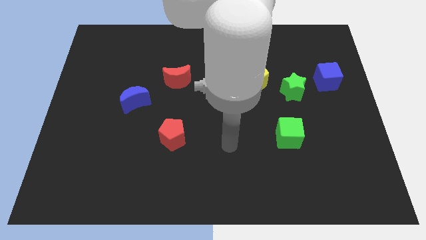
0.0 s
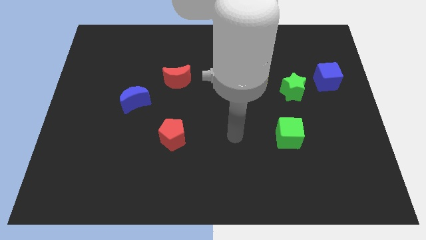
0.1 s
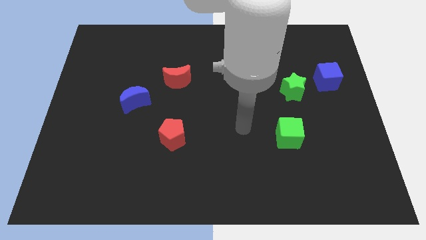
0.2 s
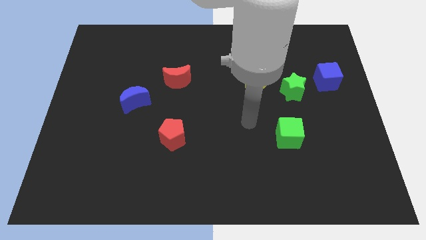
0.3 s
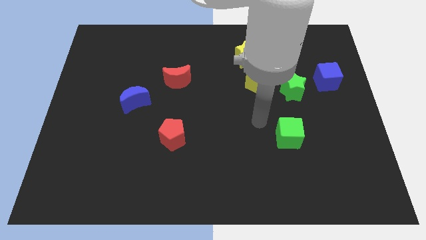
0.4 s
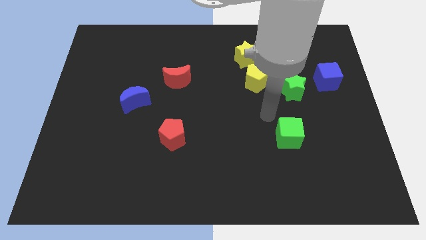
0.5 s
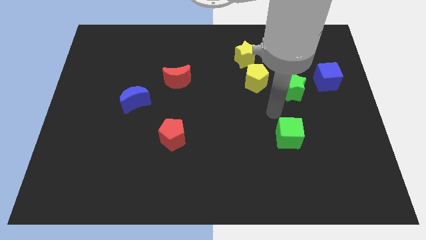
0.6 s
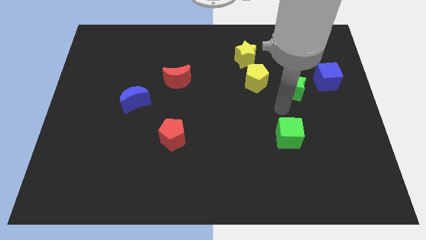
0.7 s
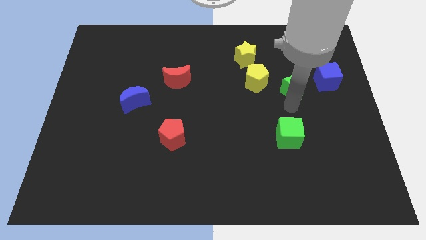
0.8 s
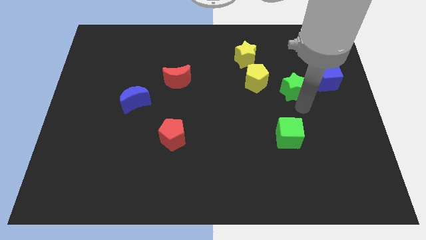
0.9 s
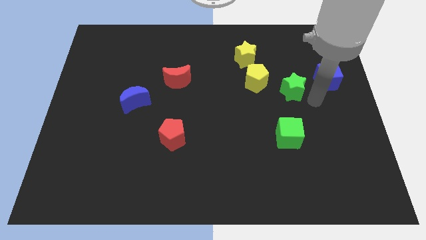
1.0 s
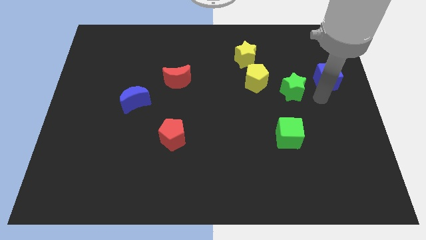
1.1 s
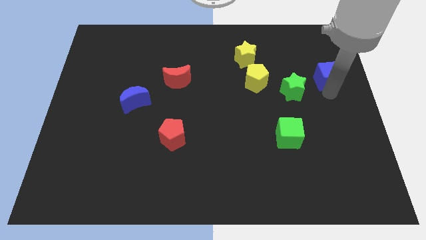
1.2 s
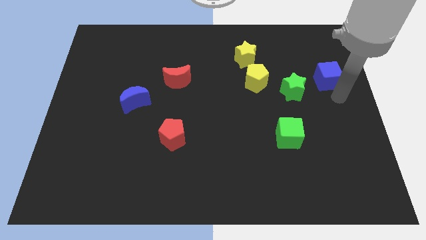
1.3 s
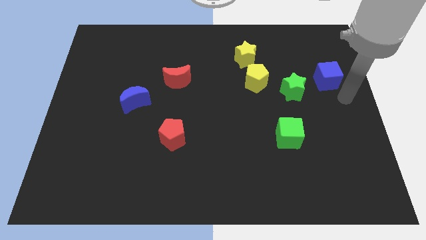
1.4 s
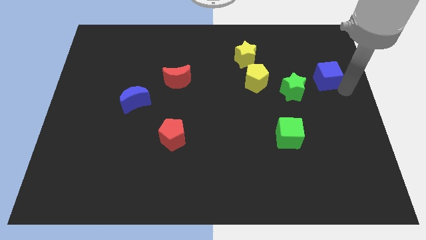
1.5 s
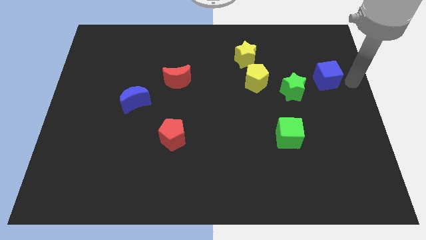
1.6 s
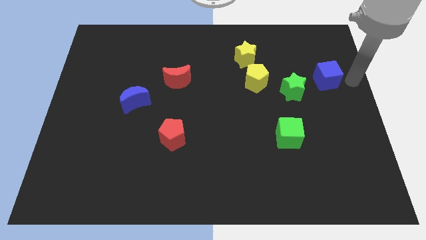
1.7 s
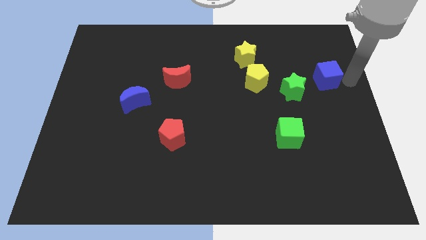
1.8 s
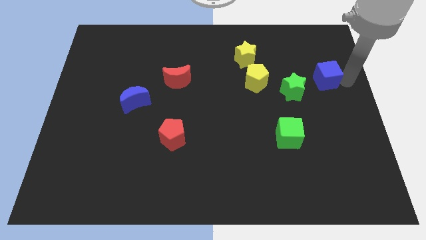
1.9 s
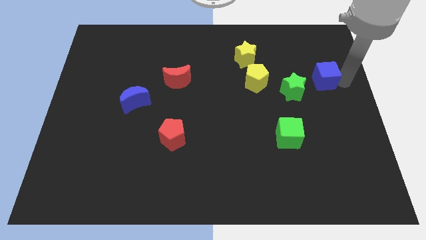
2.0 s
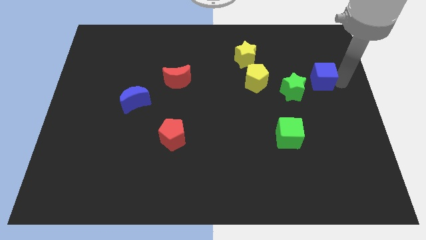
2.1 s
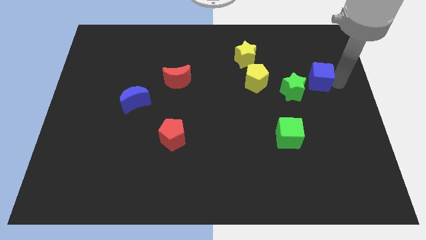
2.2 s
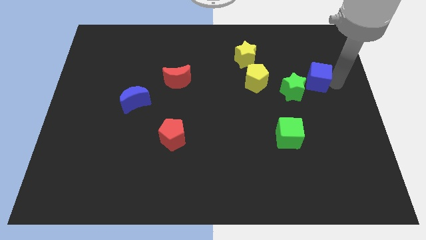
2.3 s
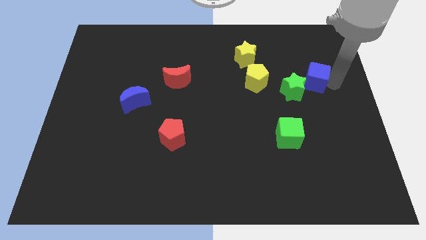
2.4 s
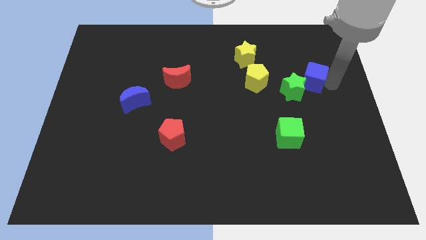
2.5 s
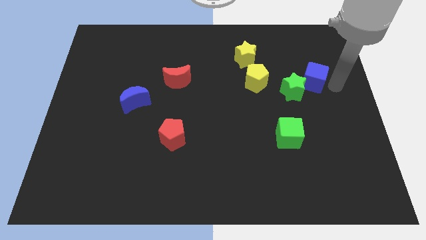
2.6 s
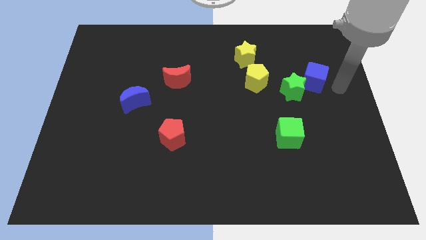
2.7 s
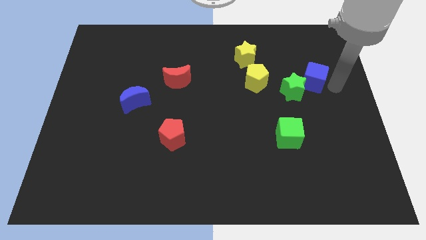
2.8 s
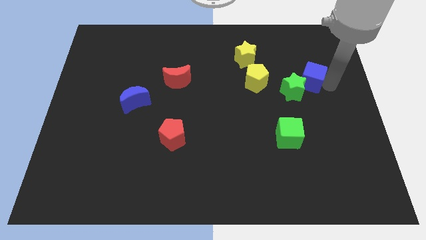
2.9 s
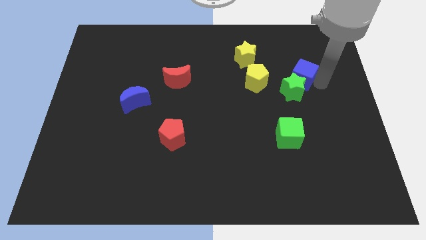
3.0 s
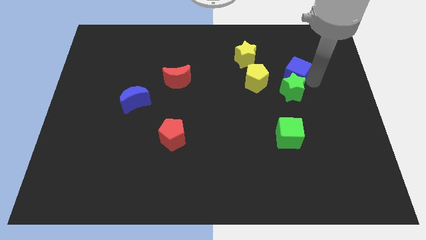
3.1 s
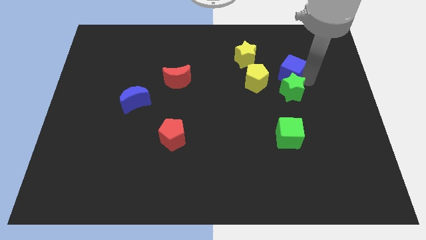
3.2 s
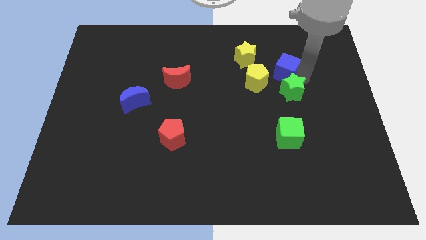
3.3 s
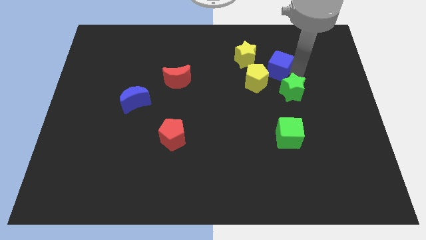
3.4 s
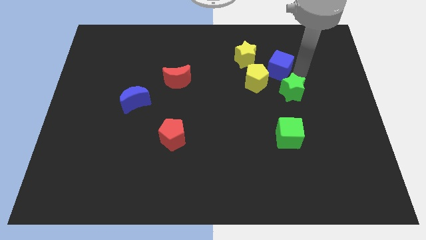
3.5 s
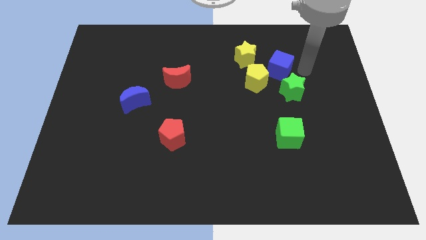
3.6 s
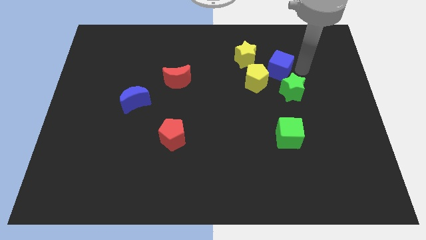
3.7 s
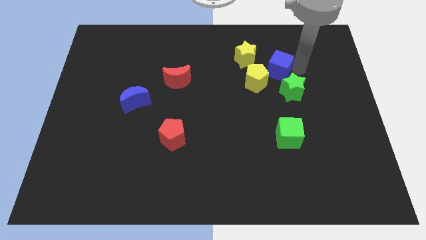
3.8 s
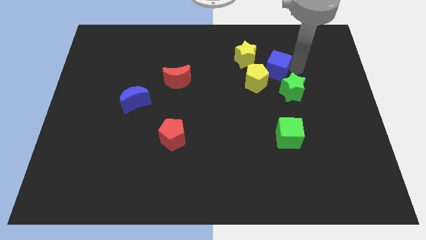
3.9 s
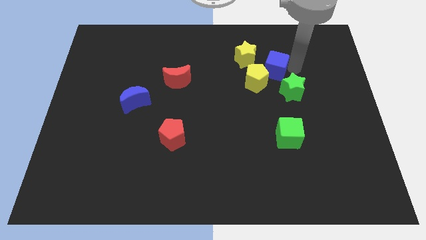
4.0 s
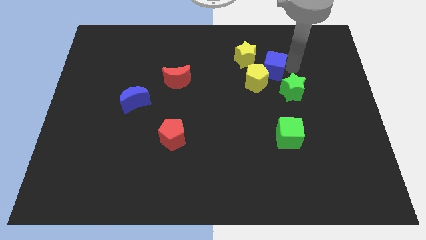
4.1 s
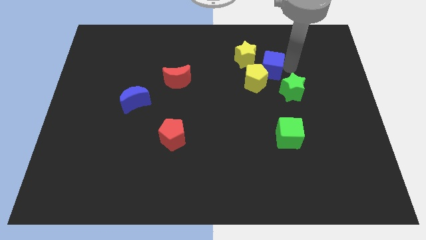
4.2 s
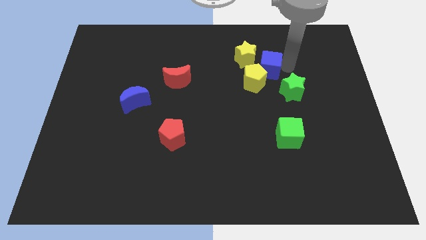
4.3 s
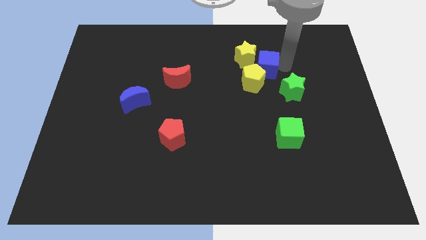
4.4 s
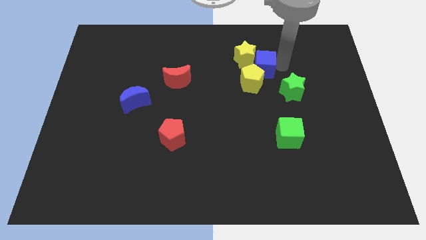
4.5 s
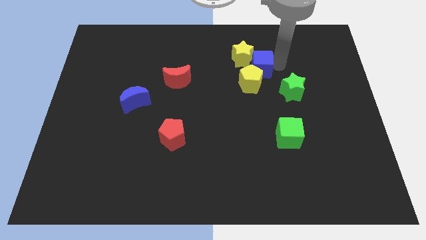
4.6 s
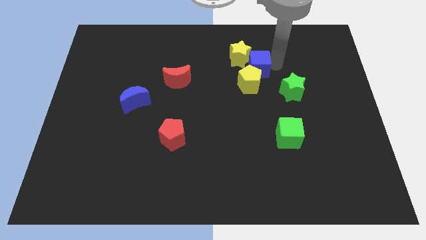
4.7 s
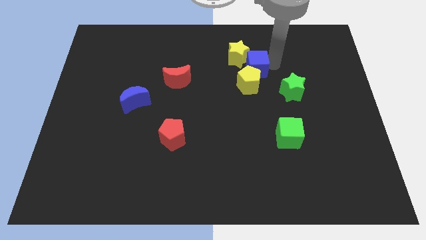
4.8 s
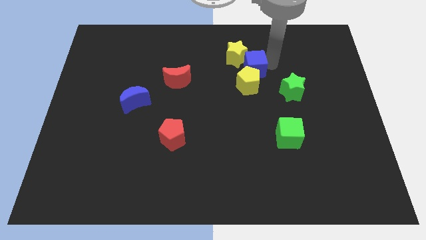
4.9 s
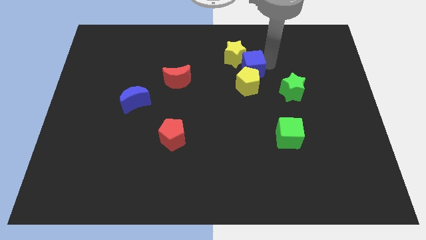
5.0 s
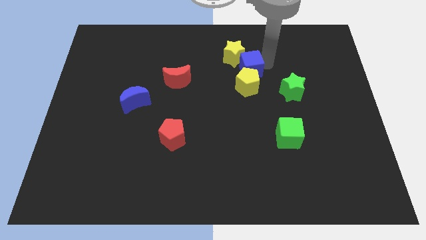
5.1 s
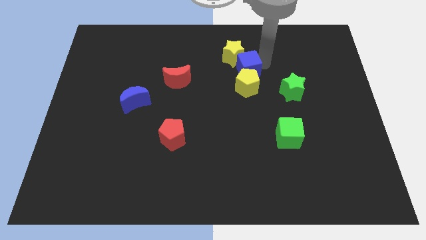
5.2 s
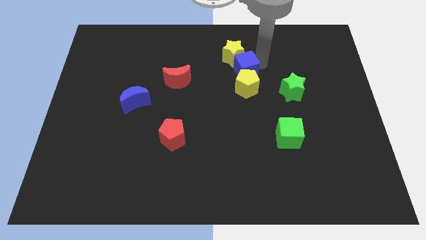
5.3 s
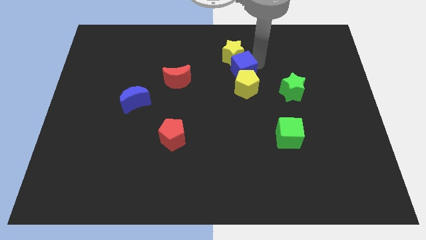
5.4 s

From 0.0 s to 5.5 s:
slide the blue cube left

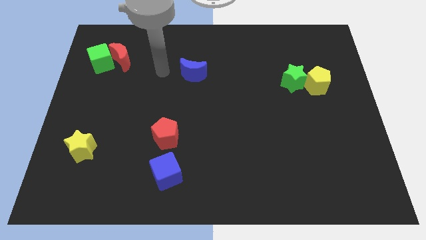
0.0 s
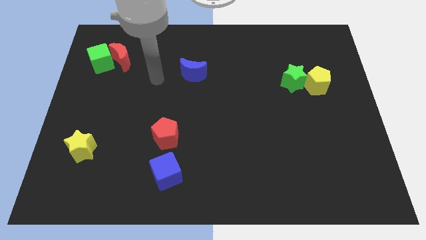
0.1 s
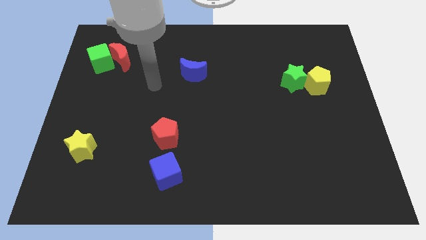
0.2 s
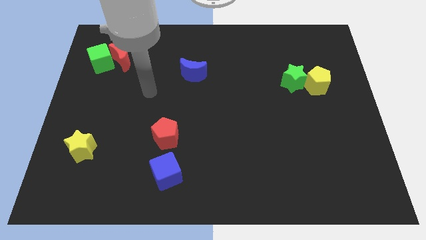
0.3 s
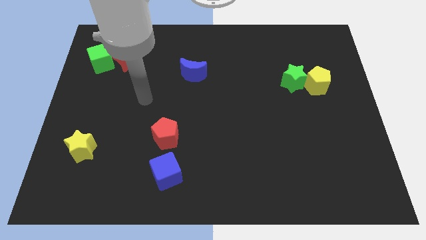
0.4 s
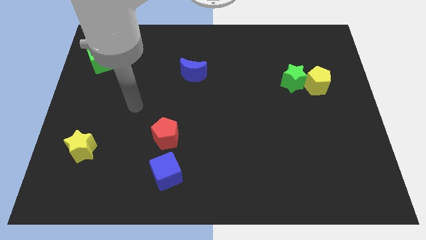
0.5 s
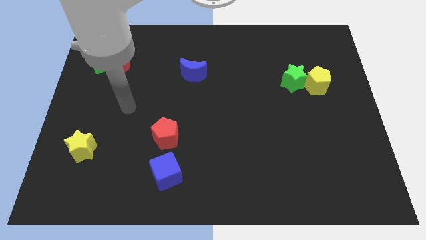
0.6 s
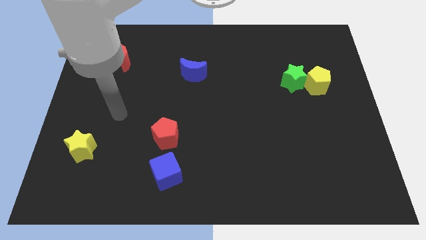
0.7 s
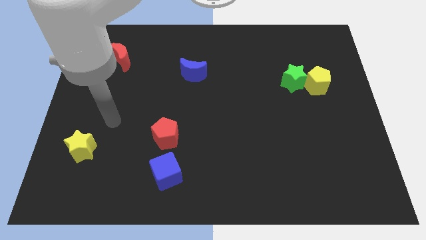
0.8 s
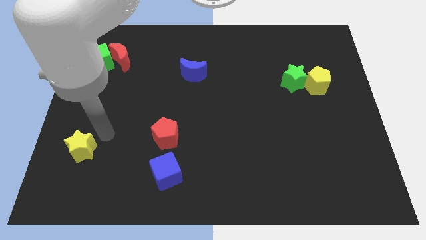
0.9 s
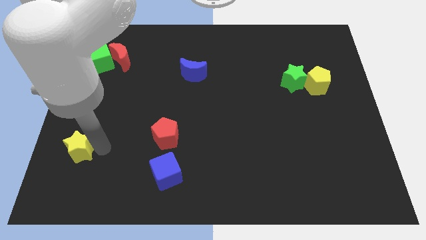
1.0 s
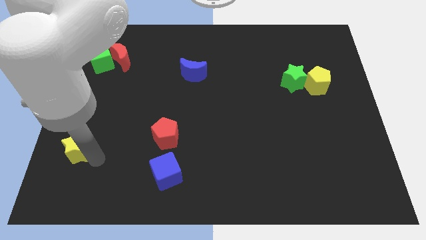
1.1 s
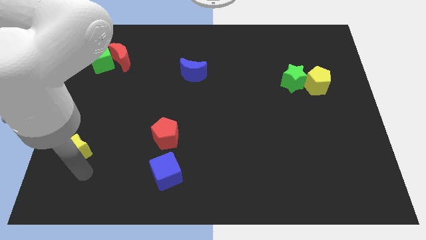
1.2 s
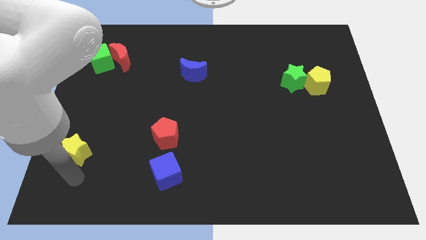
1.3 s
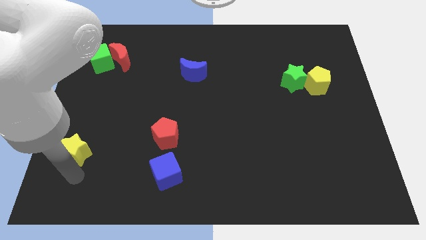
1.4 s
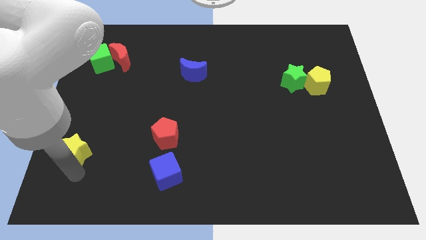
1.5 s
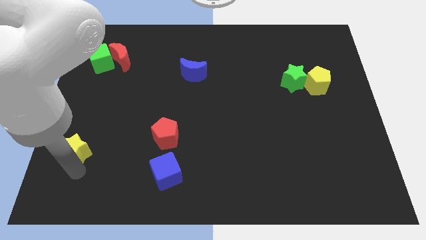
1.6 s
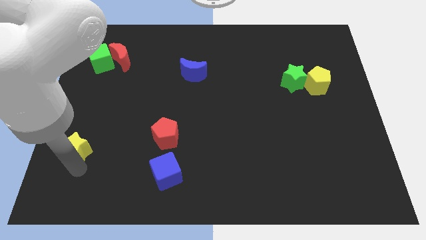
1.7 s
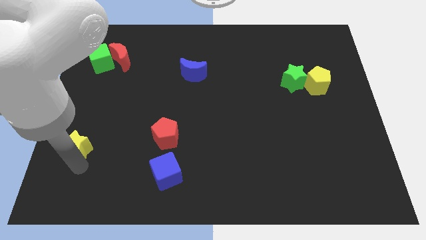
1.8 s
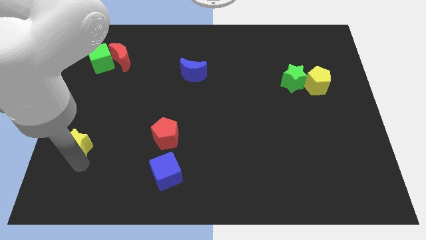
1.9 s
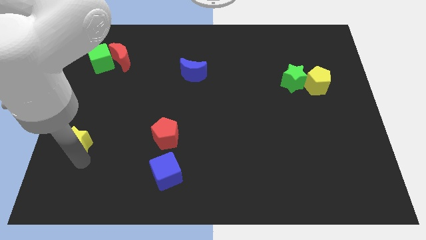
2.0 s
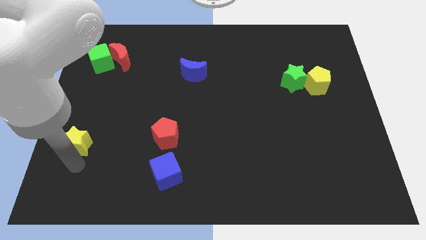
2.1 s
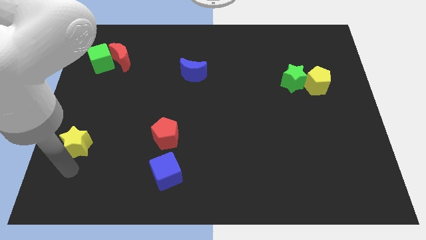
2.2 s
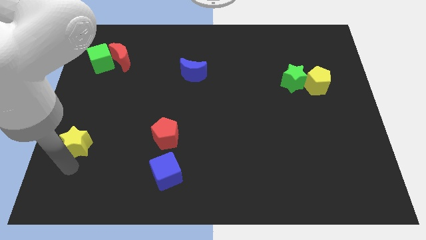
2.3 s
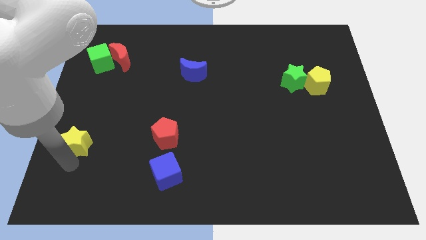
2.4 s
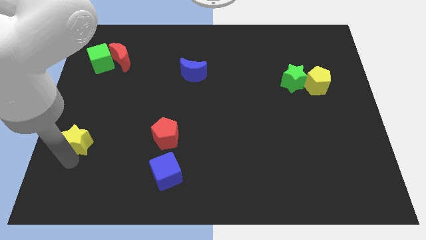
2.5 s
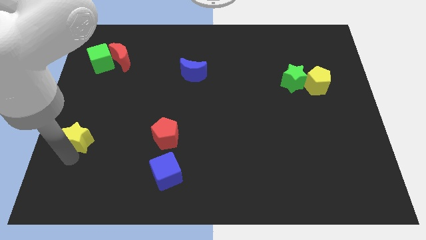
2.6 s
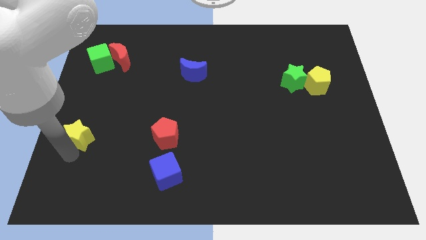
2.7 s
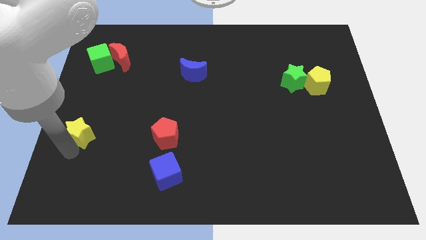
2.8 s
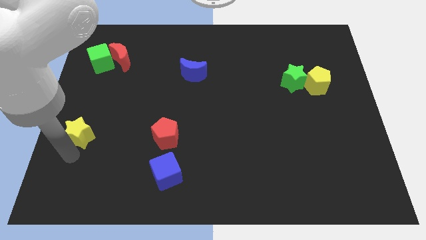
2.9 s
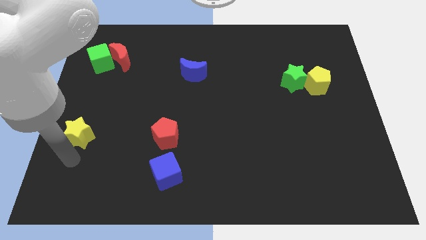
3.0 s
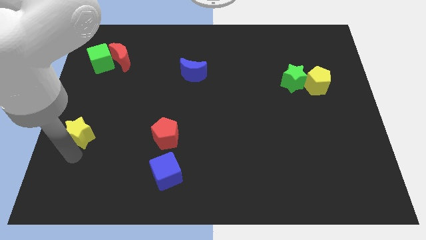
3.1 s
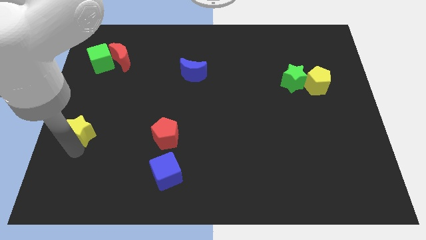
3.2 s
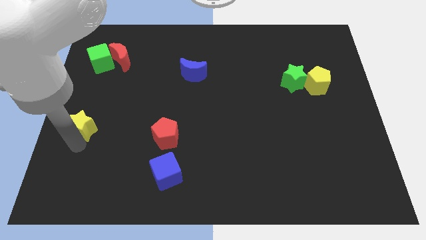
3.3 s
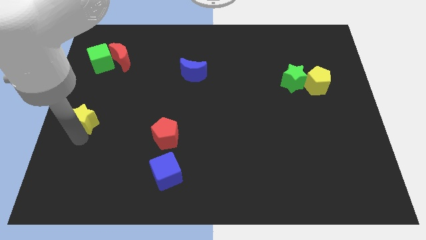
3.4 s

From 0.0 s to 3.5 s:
slightly slide the yellow star up
